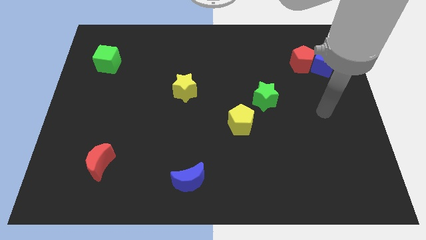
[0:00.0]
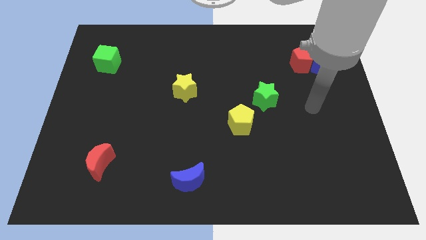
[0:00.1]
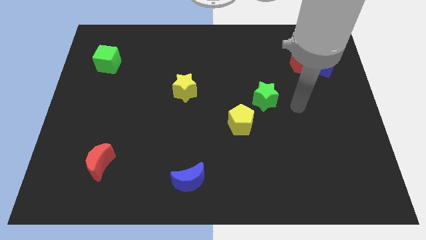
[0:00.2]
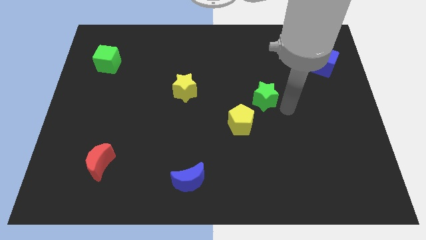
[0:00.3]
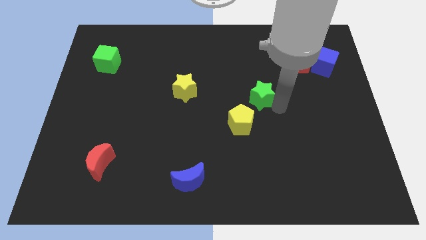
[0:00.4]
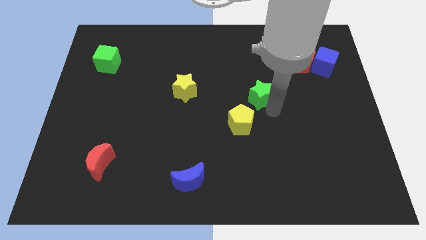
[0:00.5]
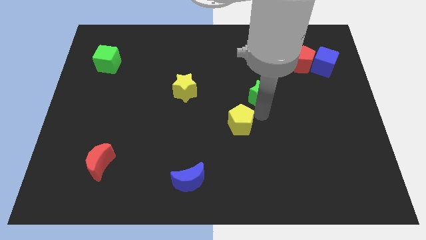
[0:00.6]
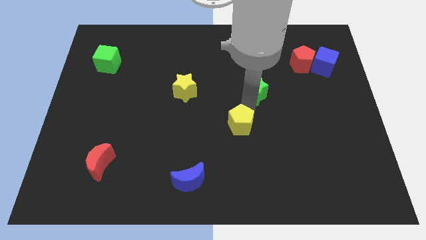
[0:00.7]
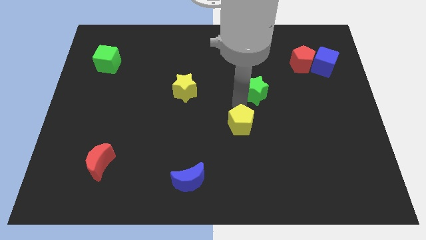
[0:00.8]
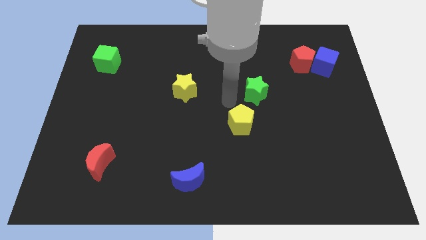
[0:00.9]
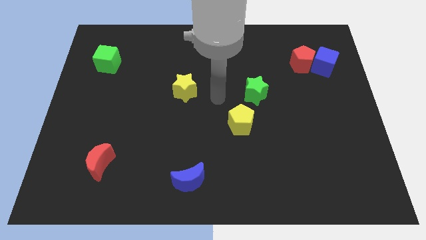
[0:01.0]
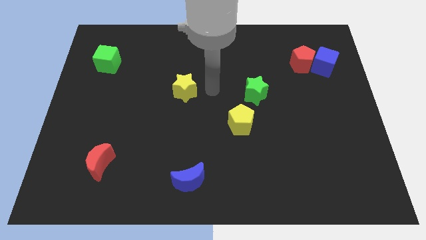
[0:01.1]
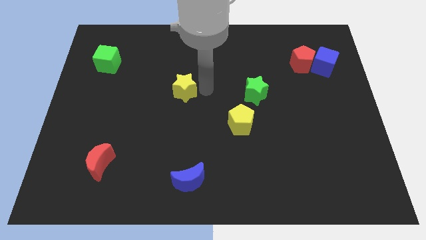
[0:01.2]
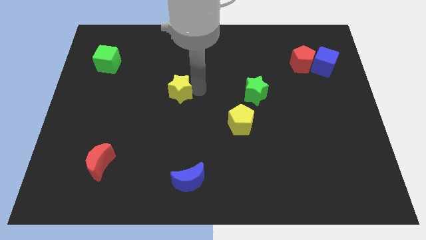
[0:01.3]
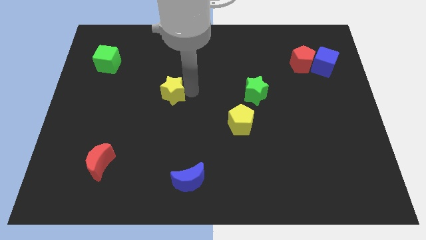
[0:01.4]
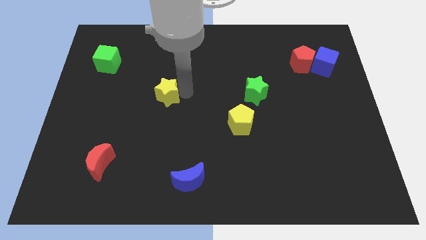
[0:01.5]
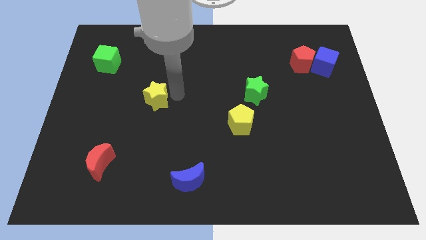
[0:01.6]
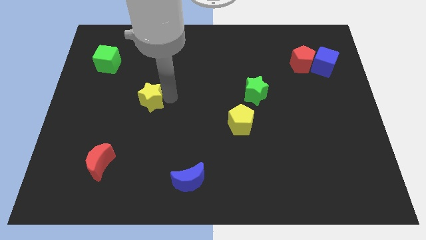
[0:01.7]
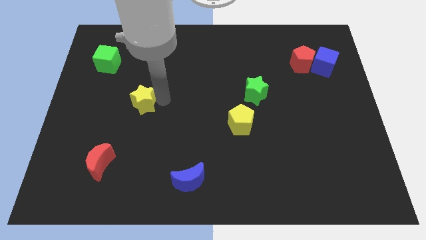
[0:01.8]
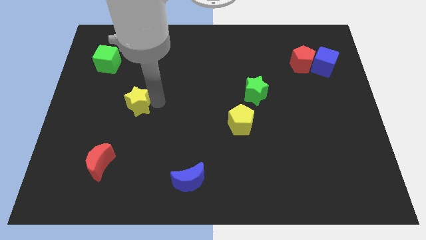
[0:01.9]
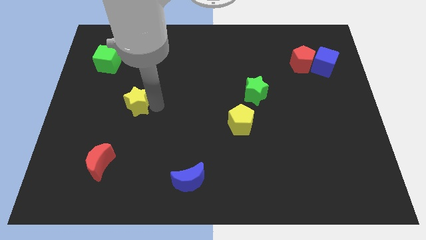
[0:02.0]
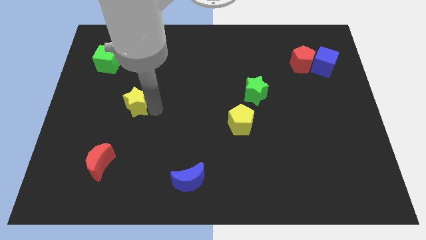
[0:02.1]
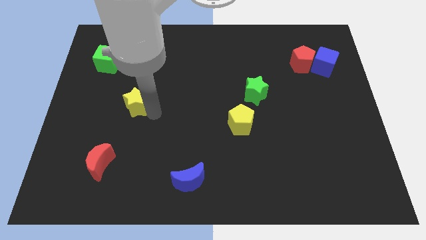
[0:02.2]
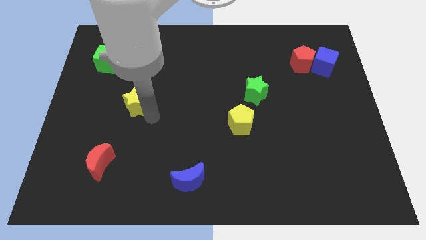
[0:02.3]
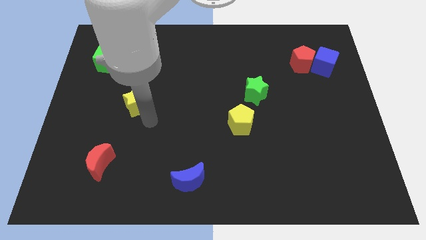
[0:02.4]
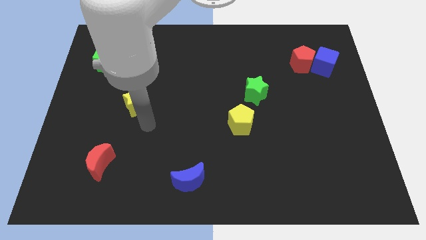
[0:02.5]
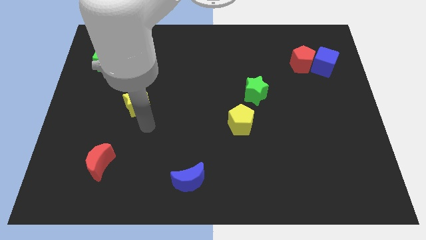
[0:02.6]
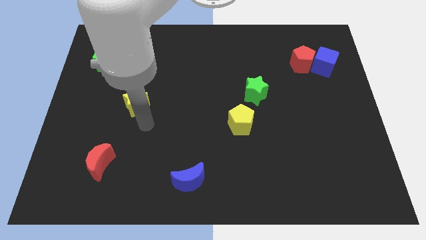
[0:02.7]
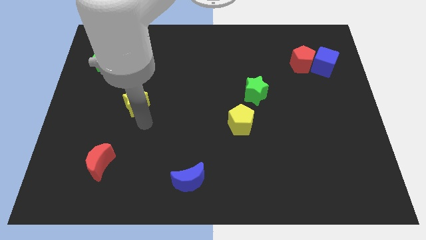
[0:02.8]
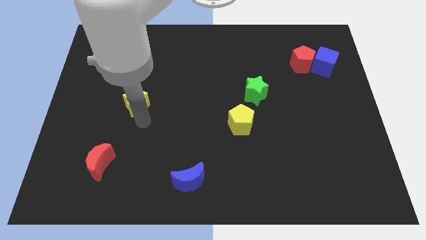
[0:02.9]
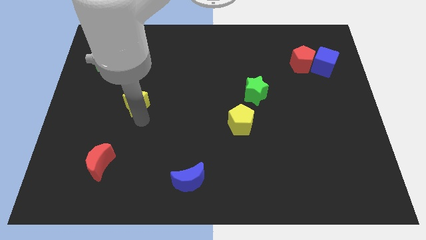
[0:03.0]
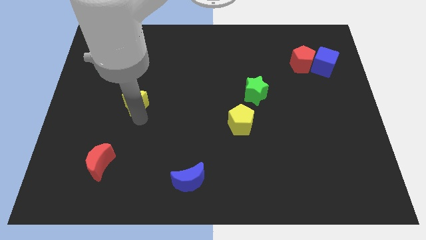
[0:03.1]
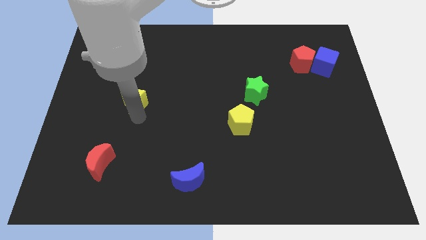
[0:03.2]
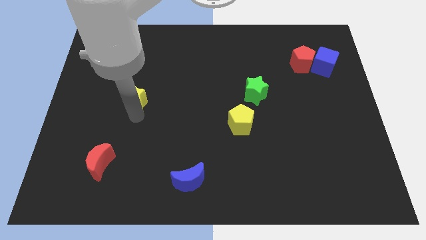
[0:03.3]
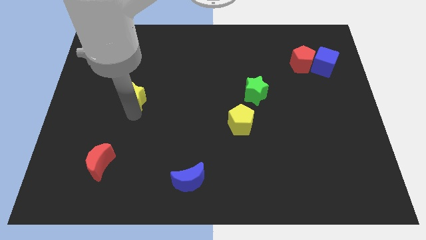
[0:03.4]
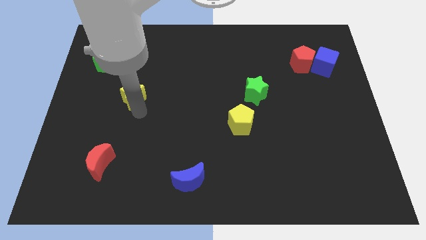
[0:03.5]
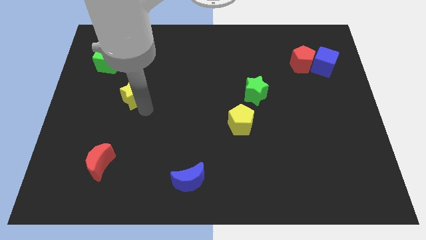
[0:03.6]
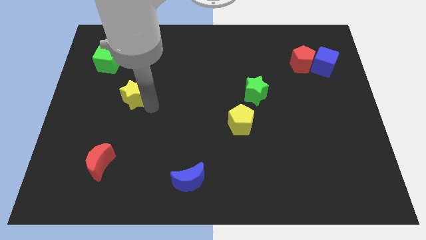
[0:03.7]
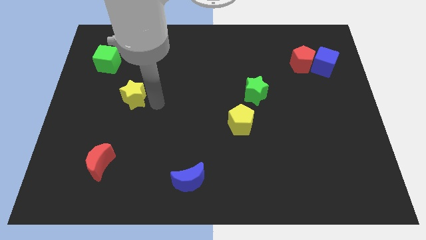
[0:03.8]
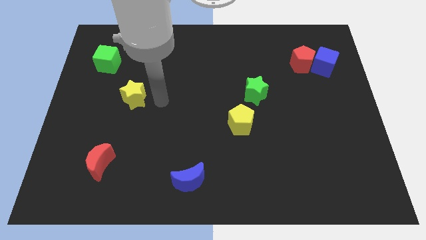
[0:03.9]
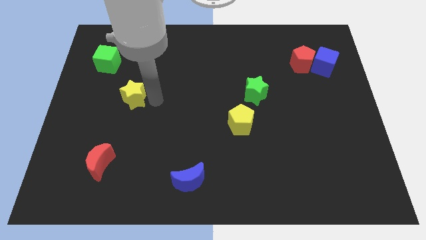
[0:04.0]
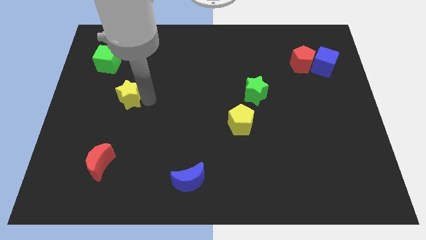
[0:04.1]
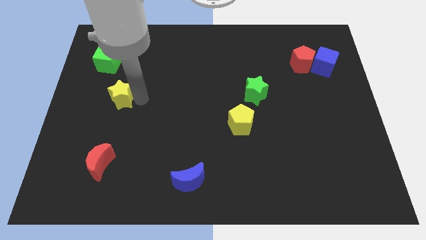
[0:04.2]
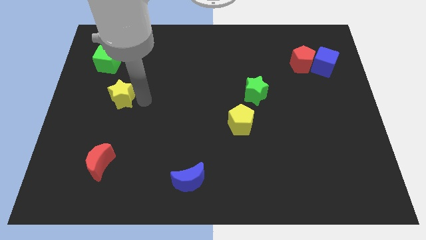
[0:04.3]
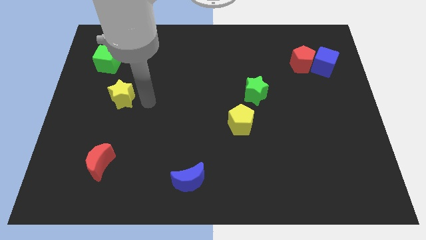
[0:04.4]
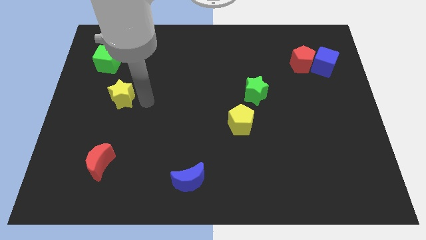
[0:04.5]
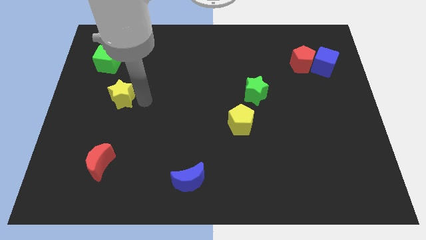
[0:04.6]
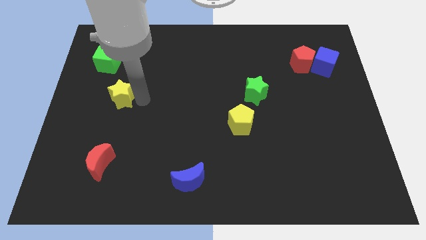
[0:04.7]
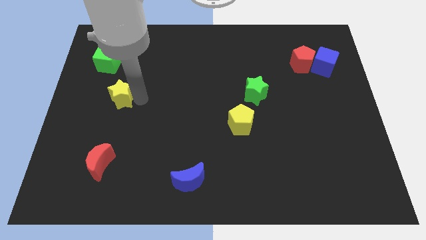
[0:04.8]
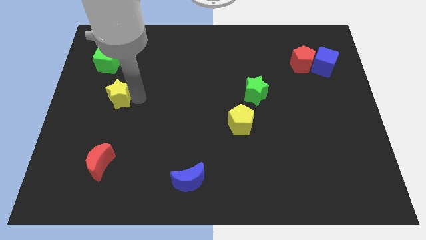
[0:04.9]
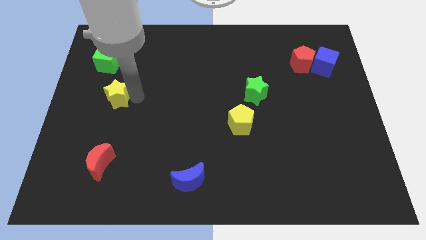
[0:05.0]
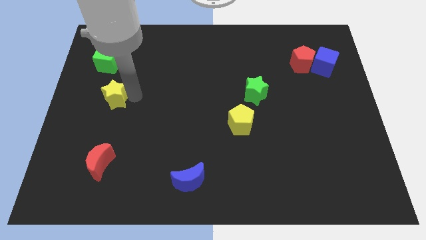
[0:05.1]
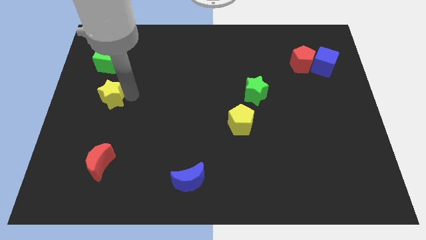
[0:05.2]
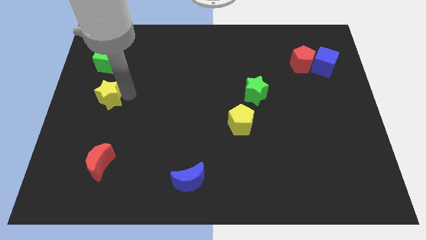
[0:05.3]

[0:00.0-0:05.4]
slide the yellow star to the center left

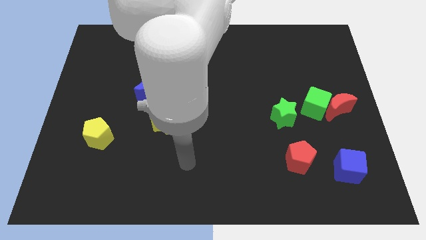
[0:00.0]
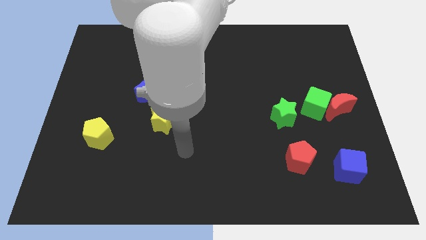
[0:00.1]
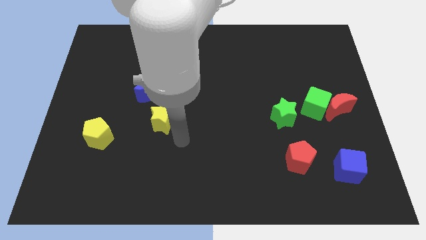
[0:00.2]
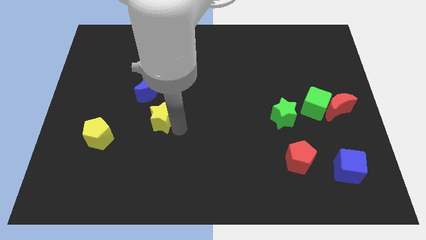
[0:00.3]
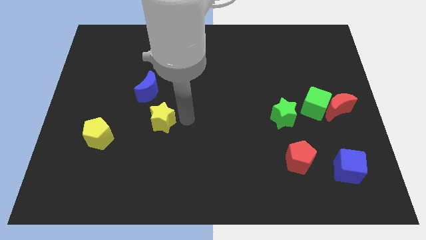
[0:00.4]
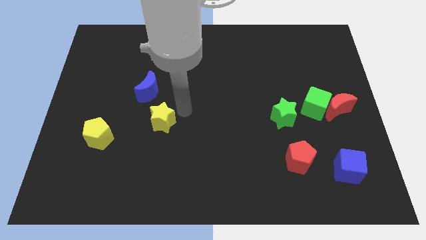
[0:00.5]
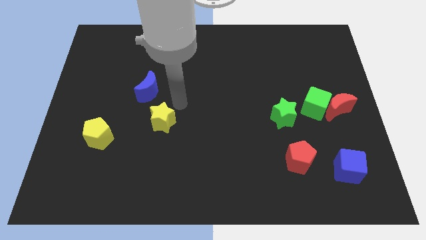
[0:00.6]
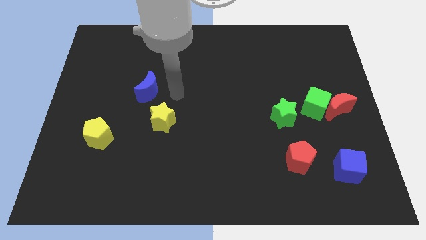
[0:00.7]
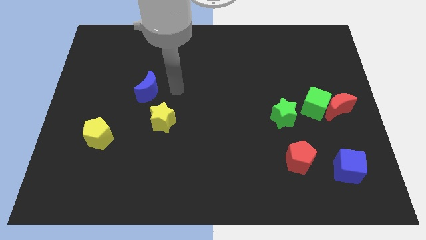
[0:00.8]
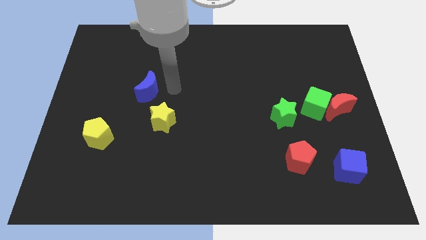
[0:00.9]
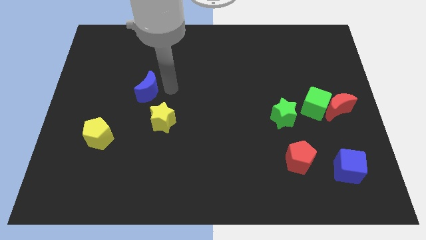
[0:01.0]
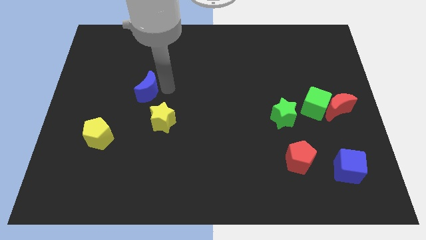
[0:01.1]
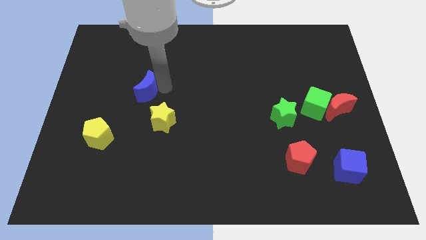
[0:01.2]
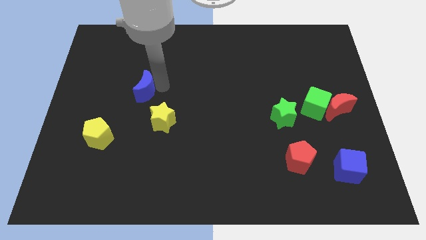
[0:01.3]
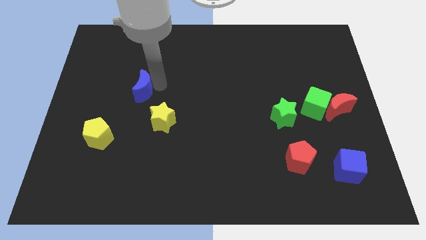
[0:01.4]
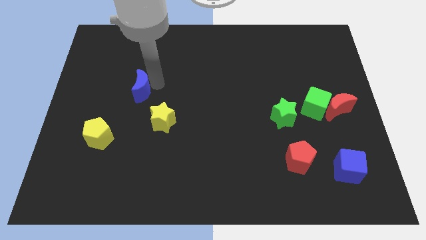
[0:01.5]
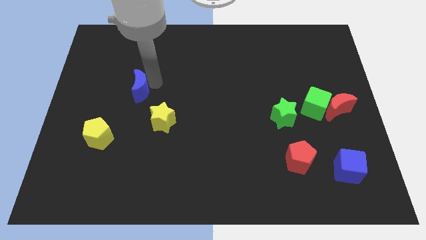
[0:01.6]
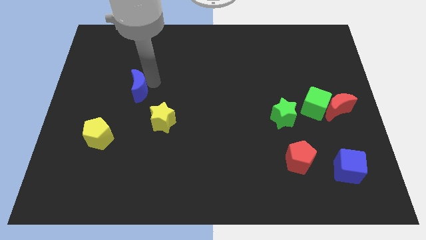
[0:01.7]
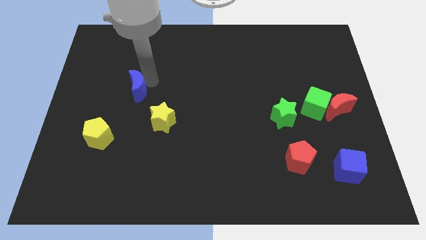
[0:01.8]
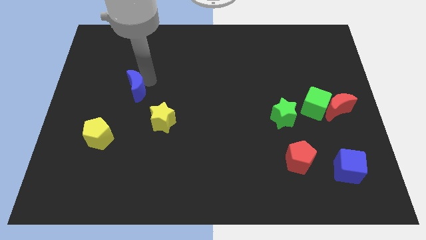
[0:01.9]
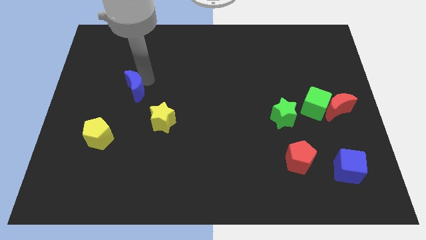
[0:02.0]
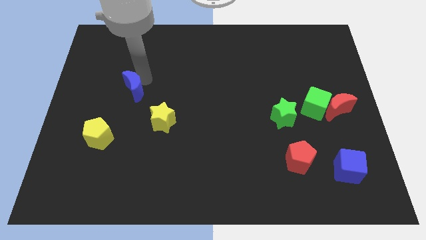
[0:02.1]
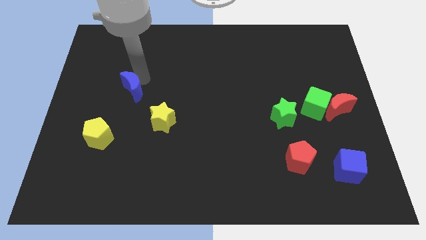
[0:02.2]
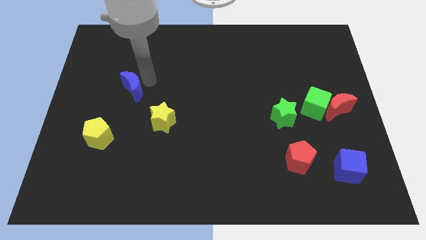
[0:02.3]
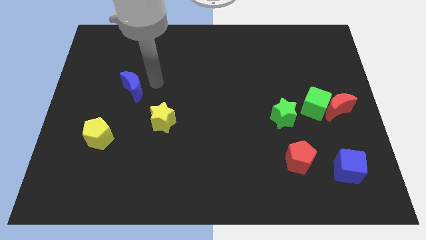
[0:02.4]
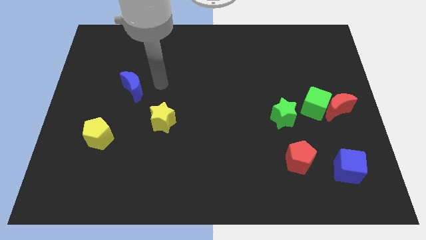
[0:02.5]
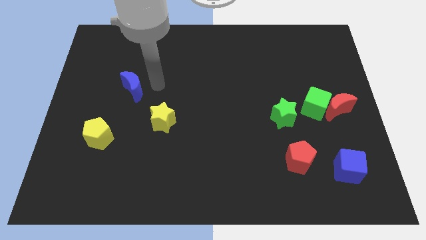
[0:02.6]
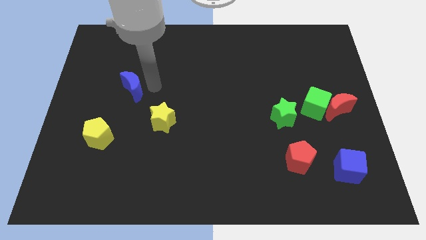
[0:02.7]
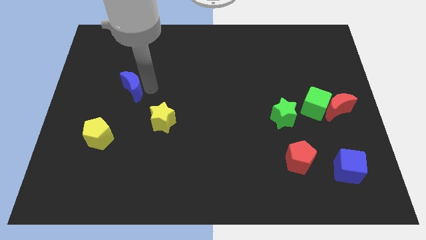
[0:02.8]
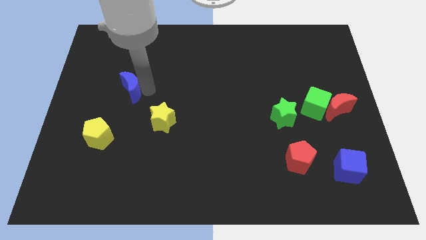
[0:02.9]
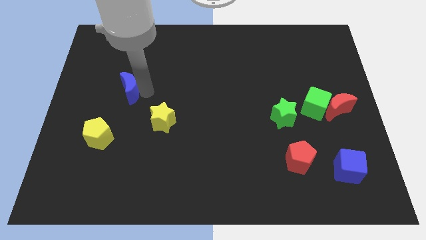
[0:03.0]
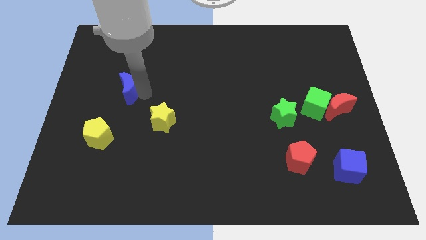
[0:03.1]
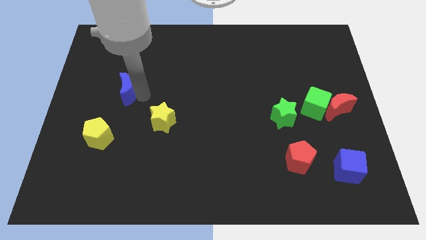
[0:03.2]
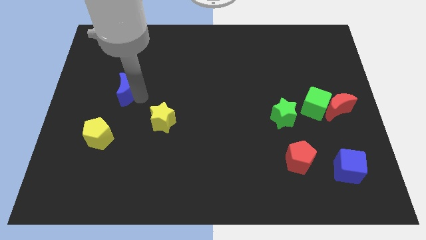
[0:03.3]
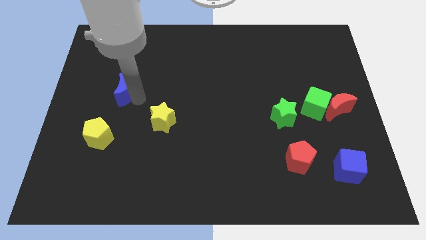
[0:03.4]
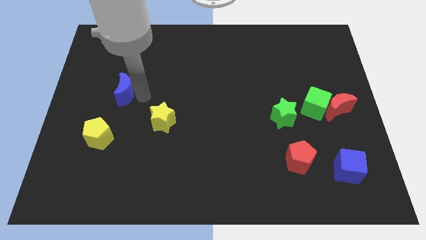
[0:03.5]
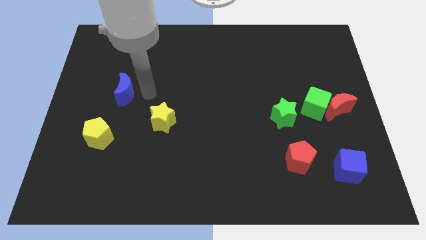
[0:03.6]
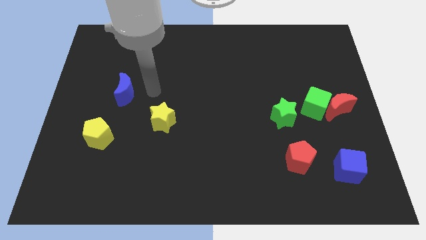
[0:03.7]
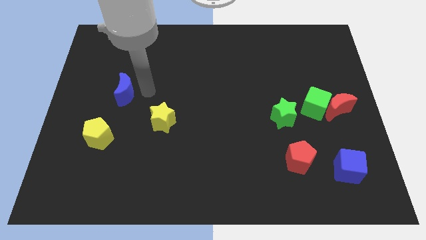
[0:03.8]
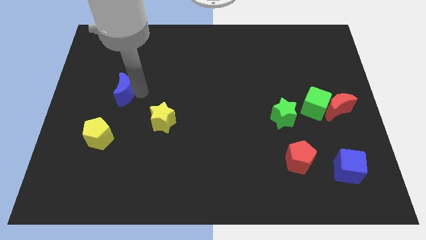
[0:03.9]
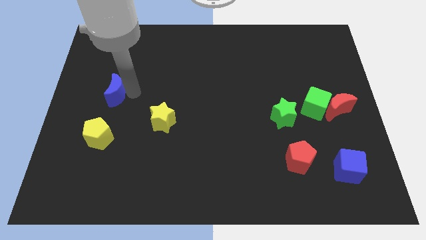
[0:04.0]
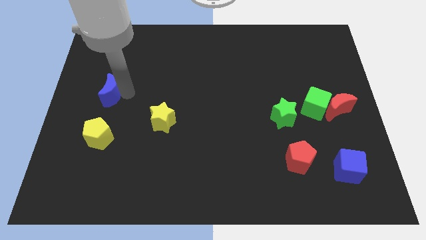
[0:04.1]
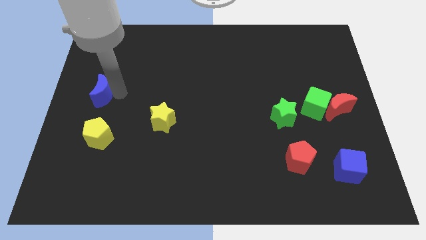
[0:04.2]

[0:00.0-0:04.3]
push the blue moon to the left side of the board
